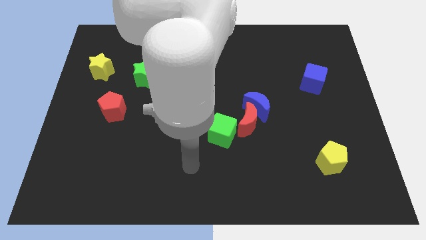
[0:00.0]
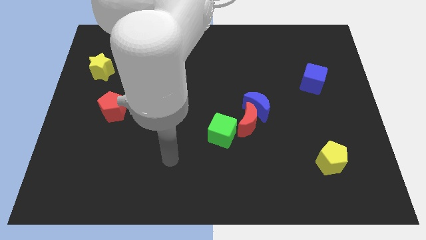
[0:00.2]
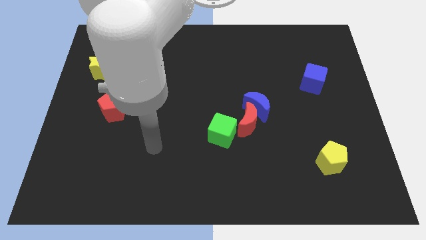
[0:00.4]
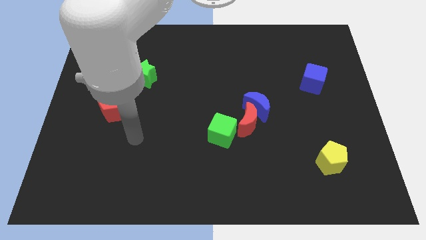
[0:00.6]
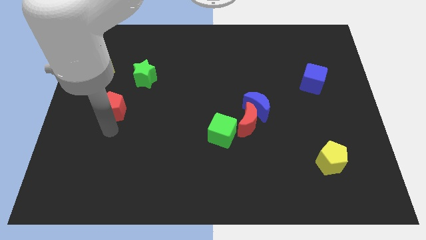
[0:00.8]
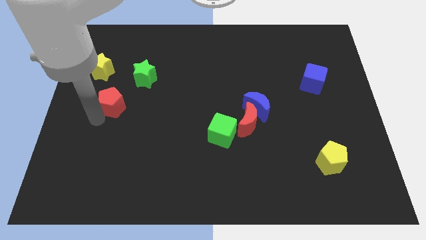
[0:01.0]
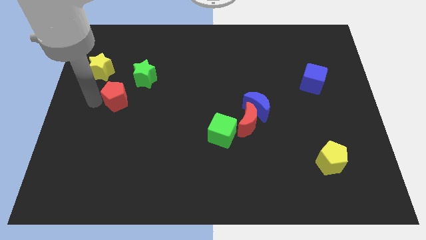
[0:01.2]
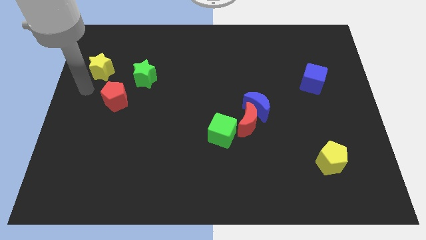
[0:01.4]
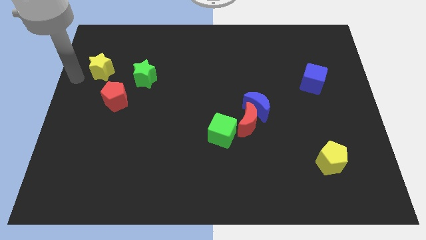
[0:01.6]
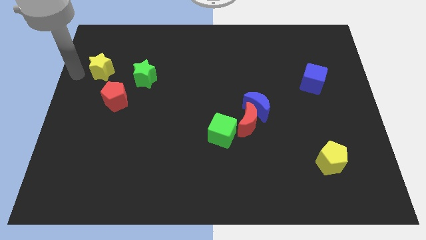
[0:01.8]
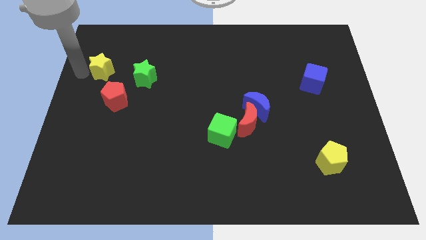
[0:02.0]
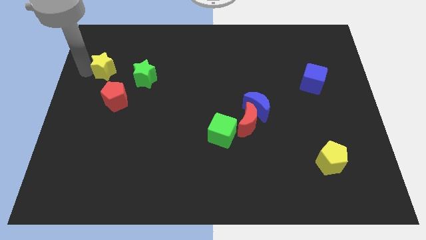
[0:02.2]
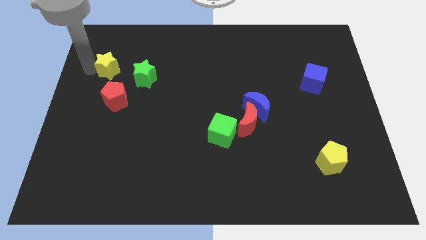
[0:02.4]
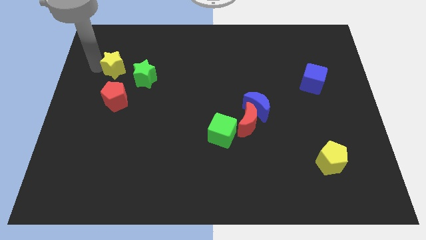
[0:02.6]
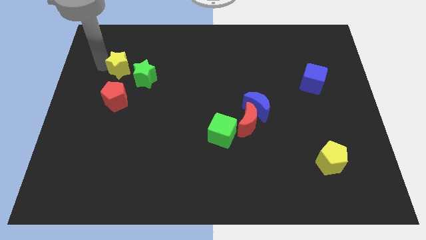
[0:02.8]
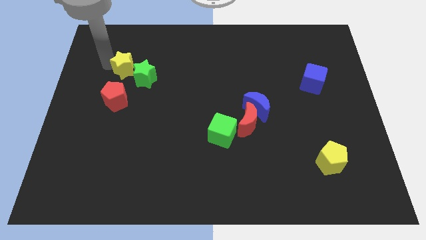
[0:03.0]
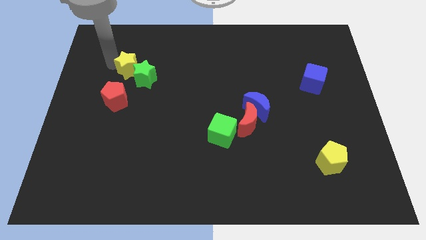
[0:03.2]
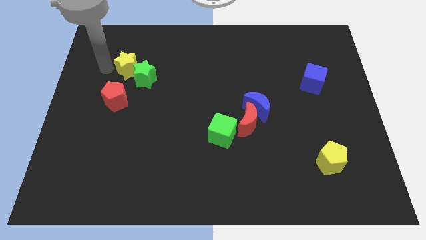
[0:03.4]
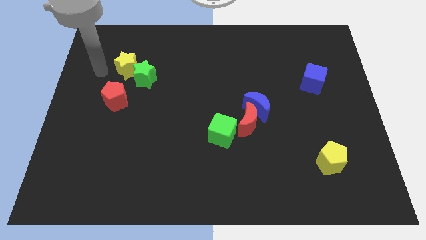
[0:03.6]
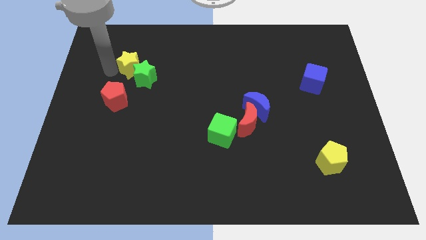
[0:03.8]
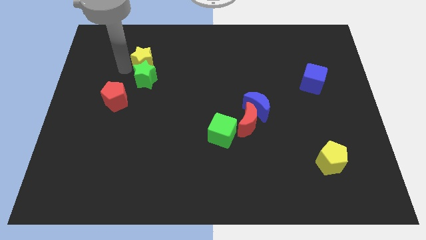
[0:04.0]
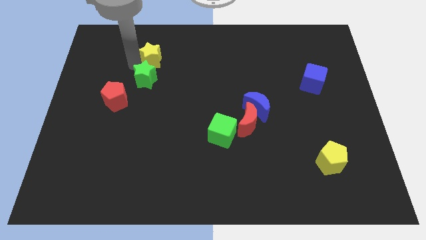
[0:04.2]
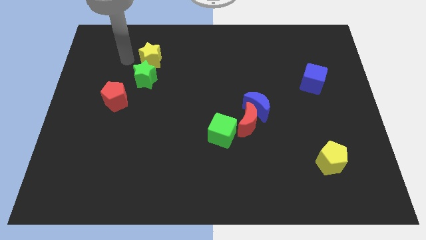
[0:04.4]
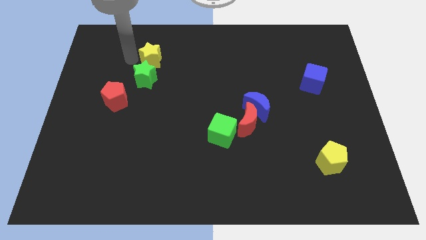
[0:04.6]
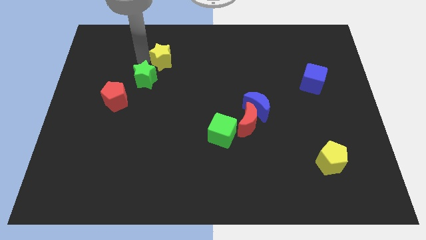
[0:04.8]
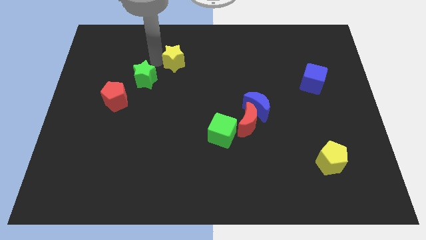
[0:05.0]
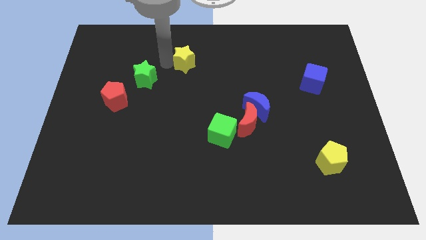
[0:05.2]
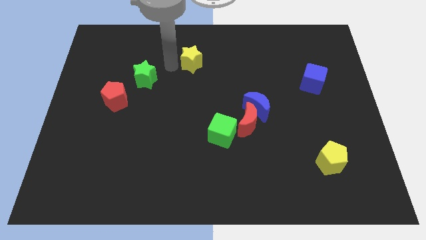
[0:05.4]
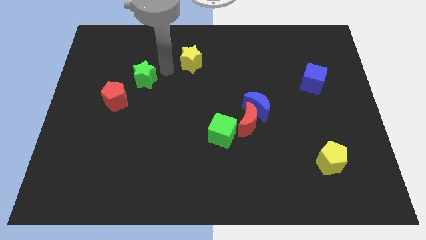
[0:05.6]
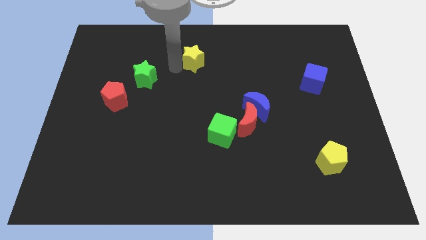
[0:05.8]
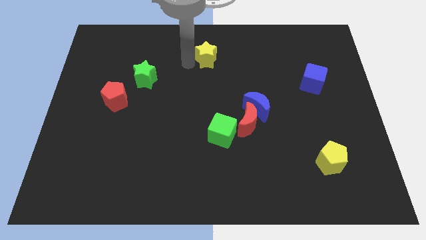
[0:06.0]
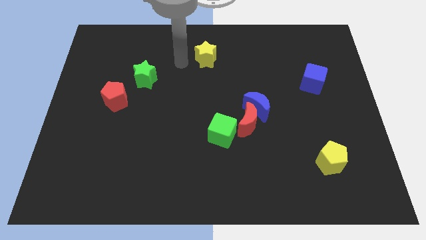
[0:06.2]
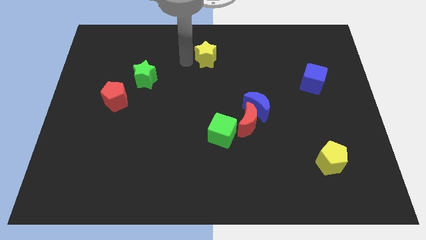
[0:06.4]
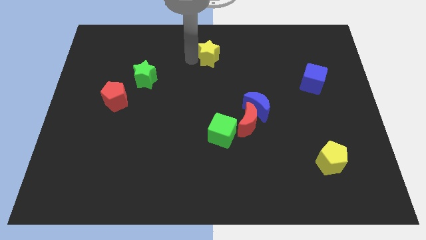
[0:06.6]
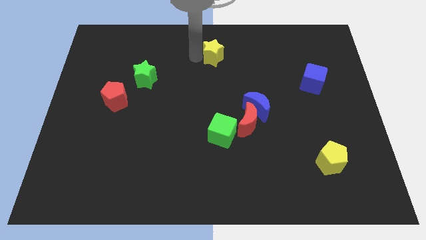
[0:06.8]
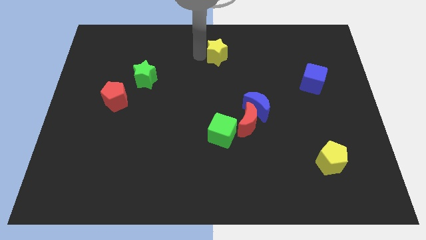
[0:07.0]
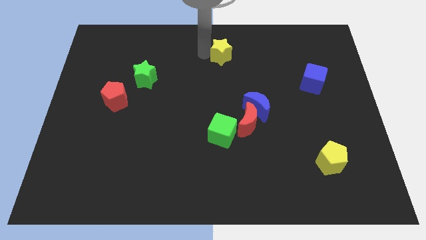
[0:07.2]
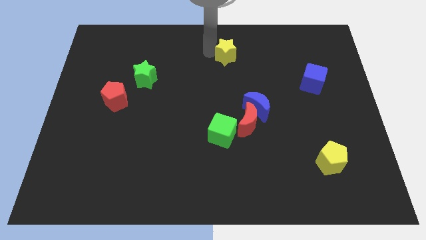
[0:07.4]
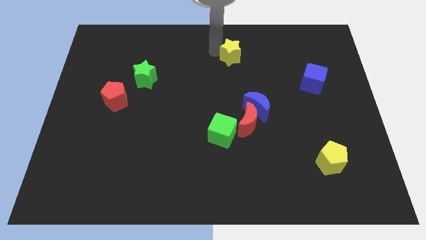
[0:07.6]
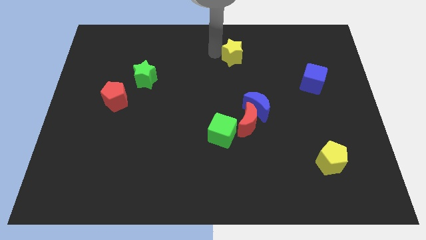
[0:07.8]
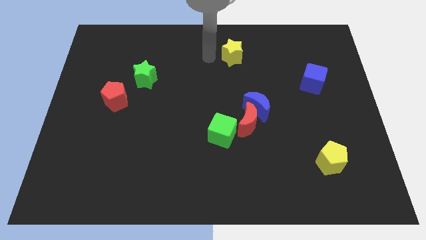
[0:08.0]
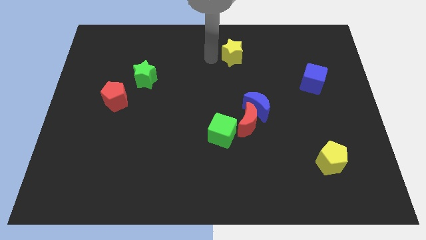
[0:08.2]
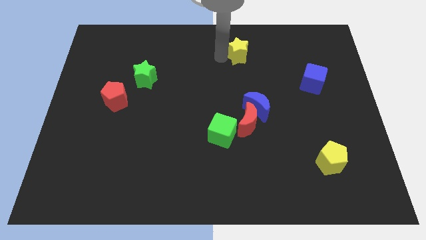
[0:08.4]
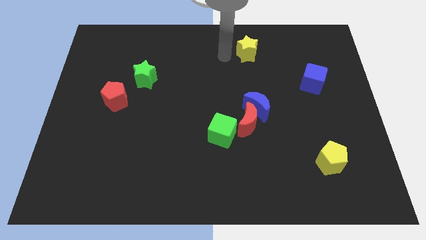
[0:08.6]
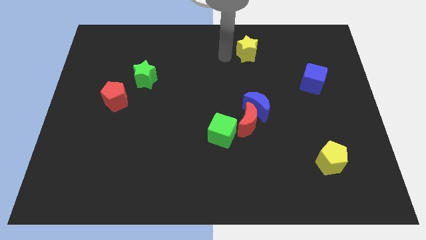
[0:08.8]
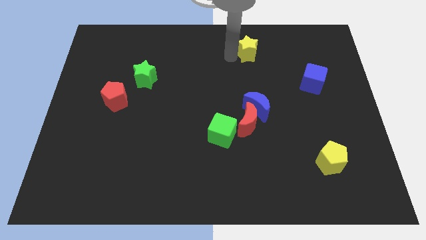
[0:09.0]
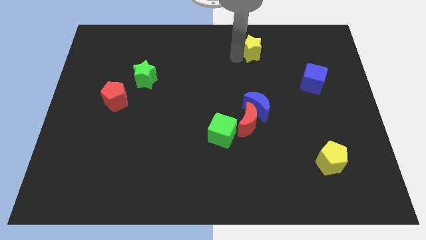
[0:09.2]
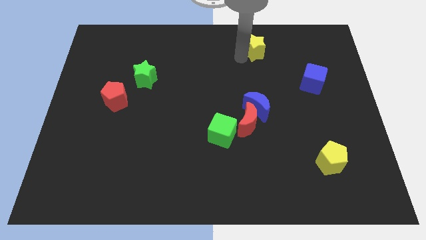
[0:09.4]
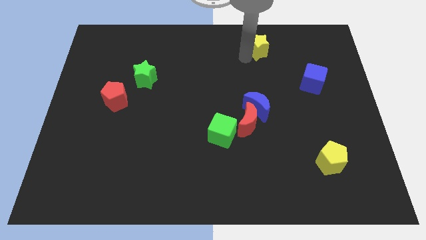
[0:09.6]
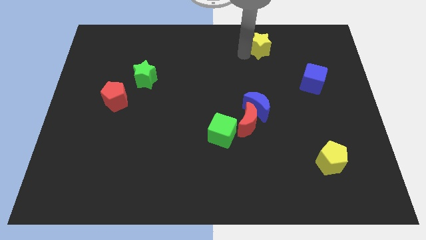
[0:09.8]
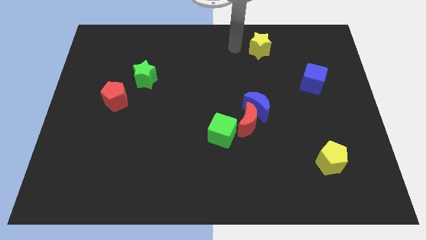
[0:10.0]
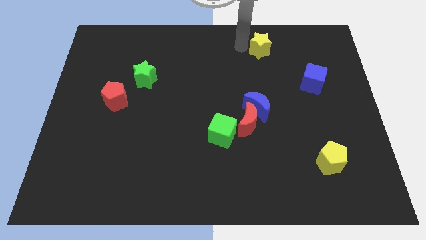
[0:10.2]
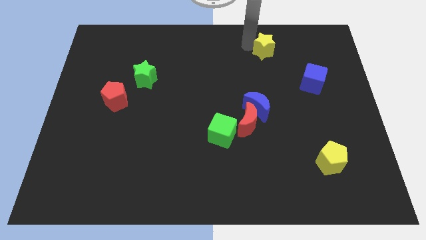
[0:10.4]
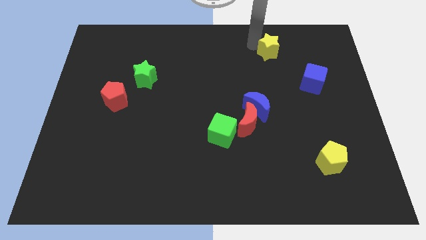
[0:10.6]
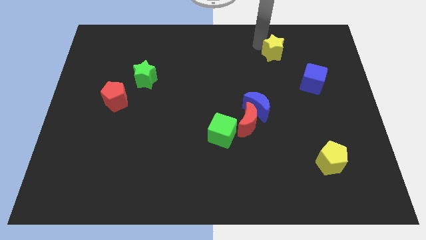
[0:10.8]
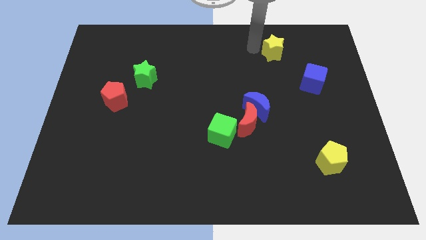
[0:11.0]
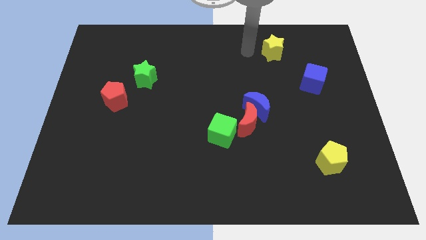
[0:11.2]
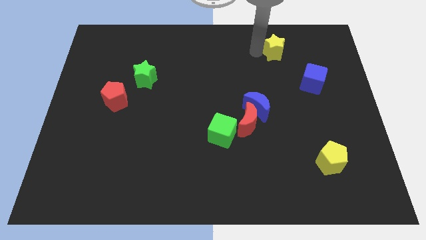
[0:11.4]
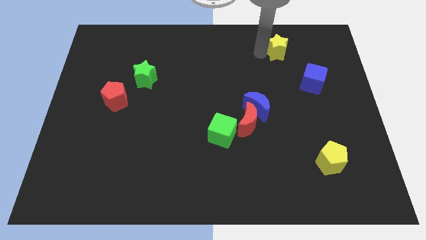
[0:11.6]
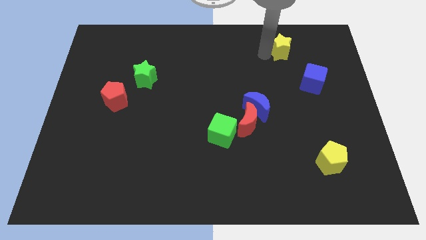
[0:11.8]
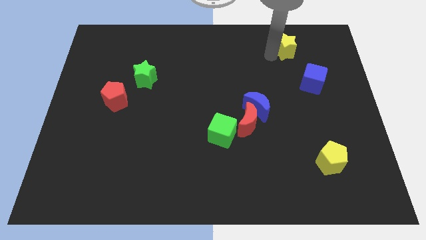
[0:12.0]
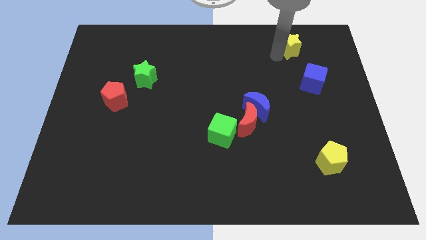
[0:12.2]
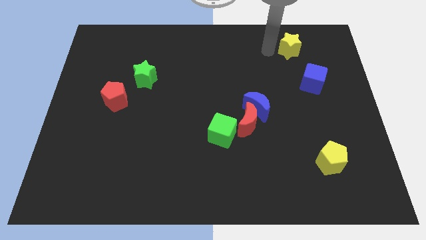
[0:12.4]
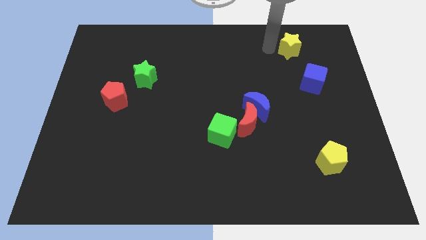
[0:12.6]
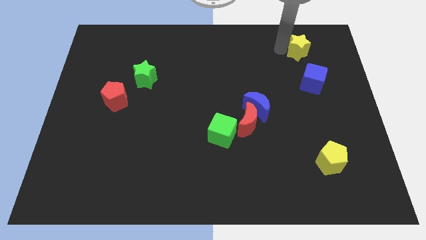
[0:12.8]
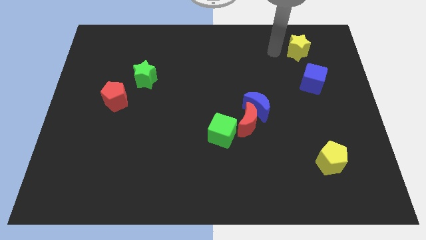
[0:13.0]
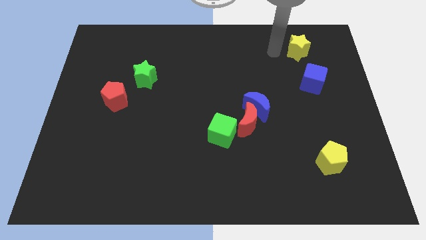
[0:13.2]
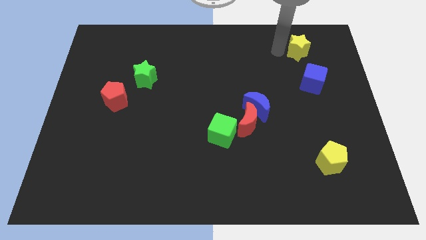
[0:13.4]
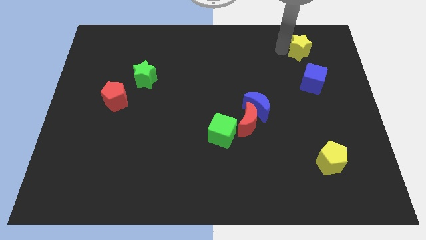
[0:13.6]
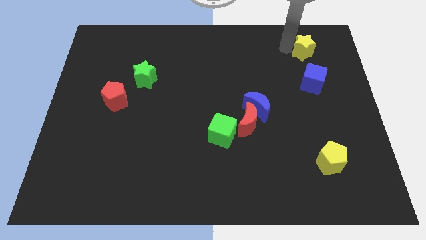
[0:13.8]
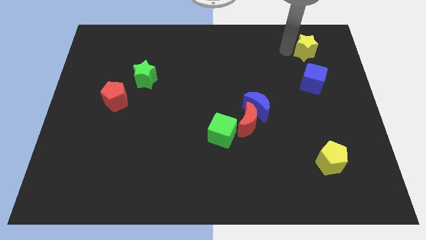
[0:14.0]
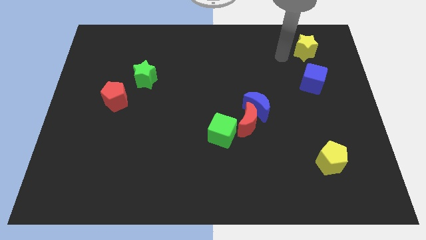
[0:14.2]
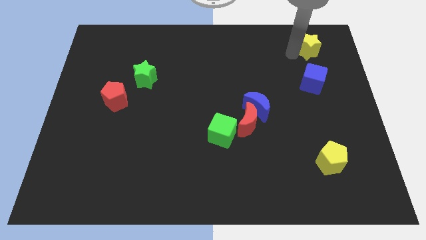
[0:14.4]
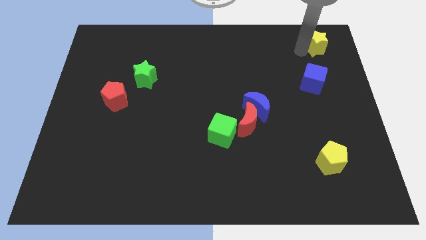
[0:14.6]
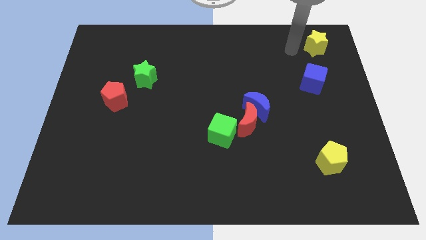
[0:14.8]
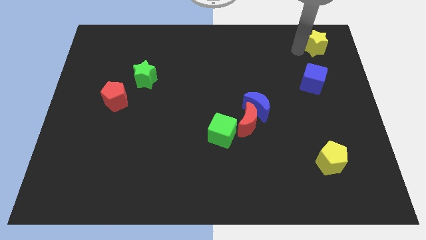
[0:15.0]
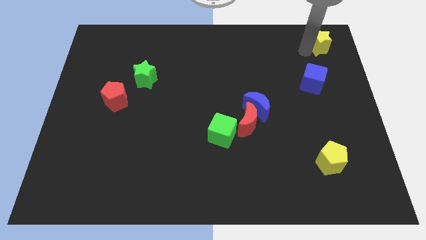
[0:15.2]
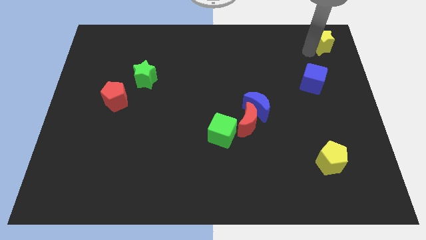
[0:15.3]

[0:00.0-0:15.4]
push the yellow star to the top right of the board
